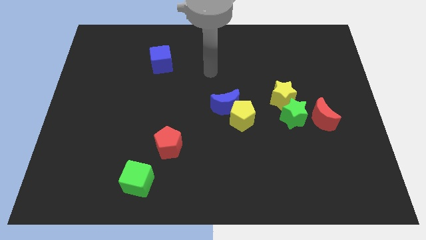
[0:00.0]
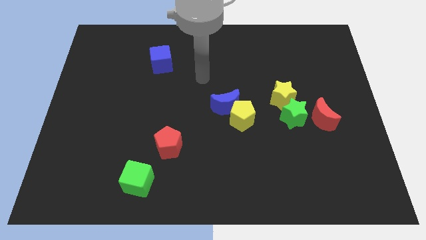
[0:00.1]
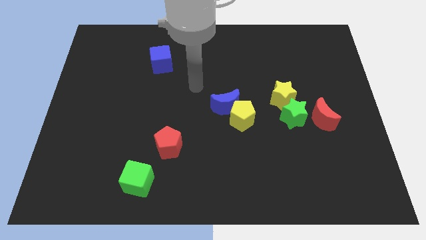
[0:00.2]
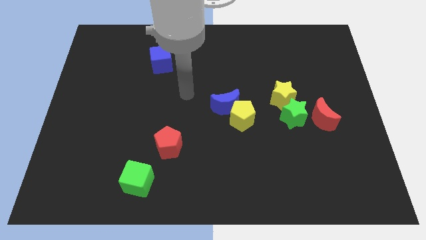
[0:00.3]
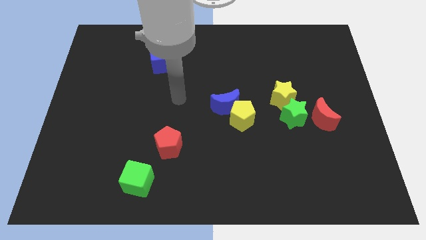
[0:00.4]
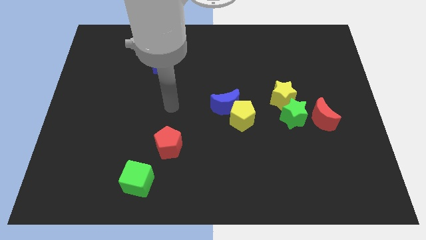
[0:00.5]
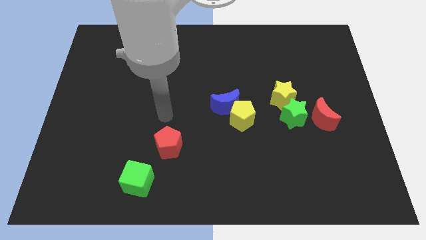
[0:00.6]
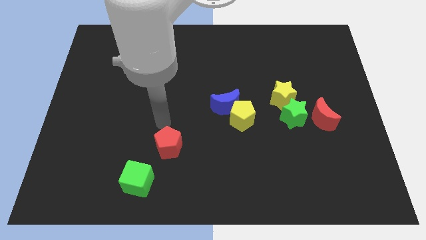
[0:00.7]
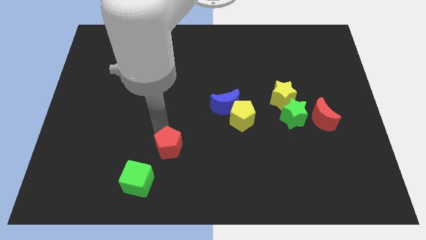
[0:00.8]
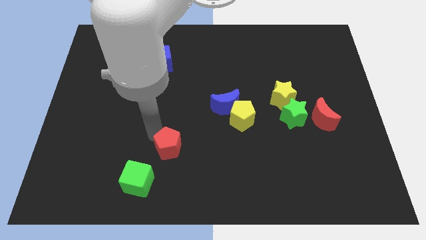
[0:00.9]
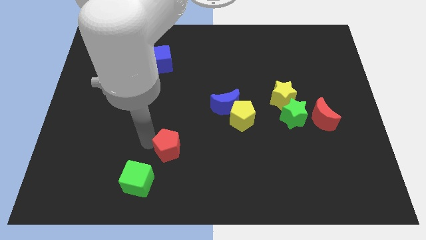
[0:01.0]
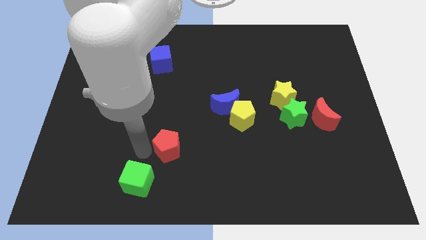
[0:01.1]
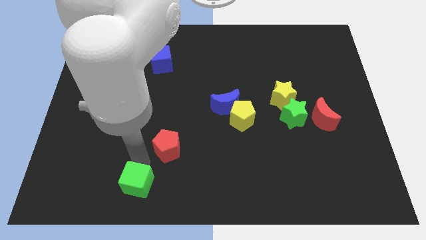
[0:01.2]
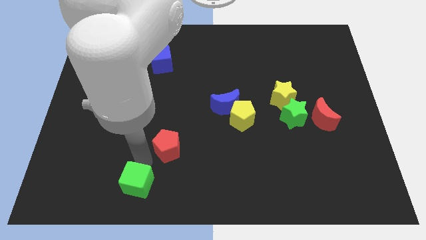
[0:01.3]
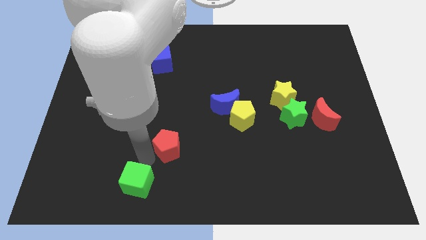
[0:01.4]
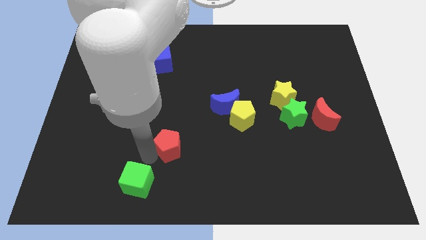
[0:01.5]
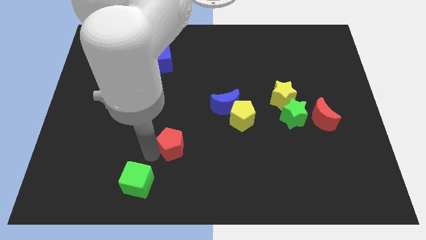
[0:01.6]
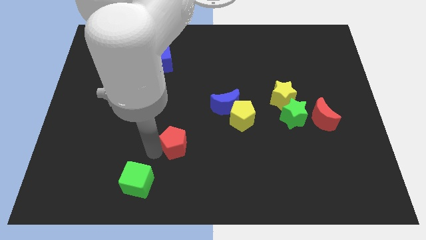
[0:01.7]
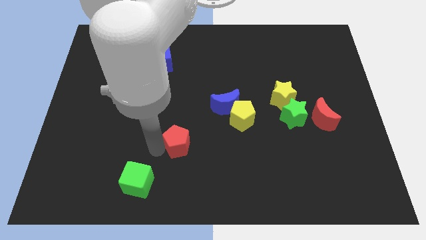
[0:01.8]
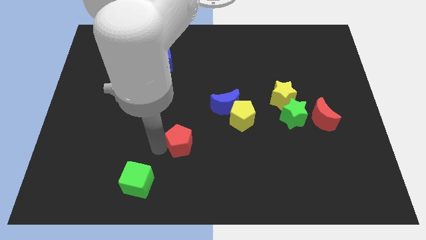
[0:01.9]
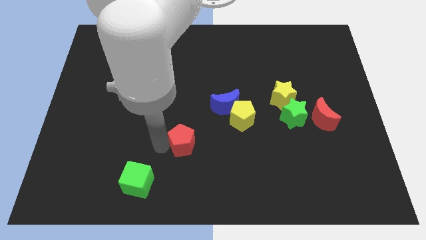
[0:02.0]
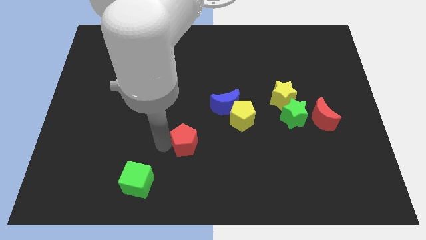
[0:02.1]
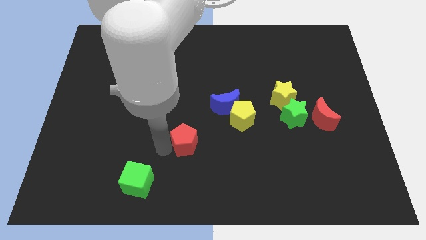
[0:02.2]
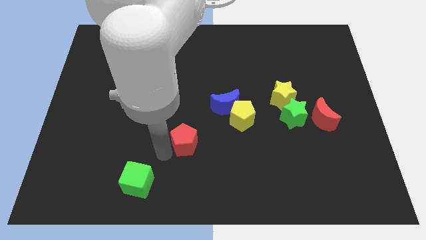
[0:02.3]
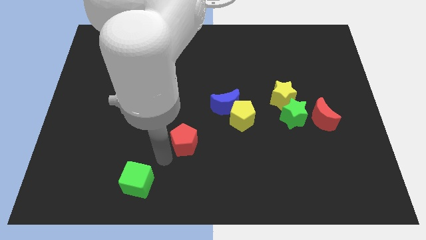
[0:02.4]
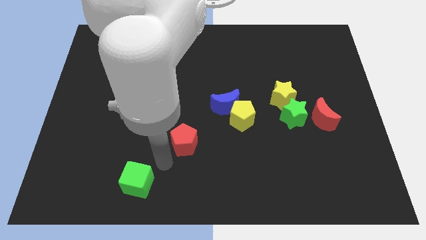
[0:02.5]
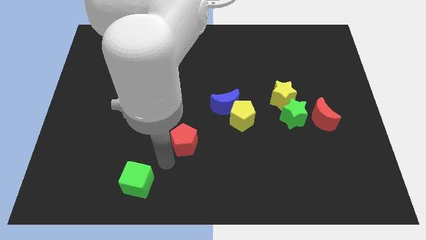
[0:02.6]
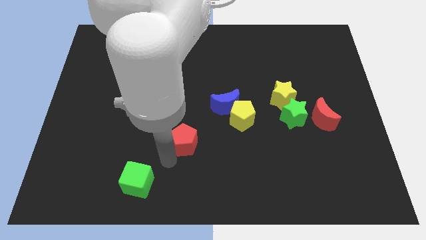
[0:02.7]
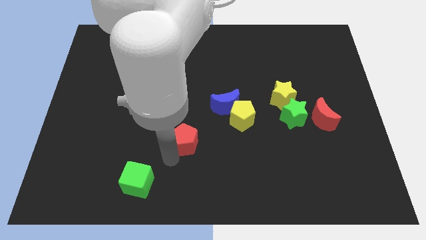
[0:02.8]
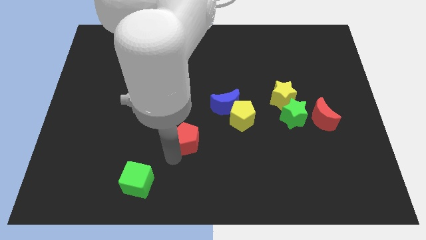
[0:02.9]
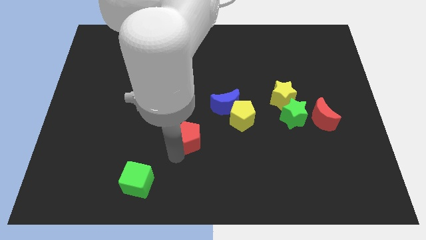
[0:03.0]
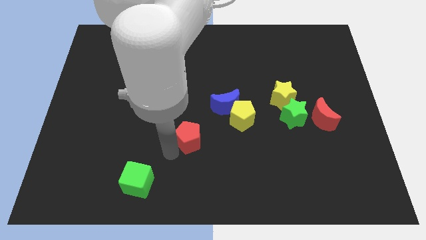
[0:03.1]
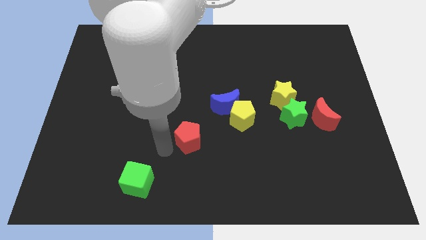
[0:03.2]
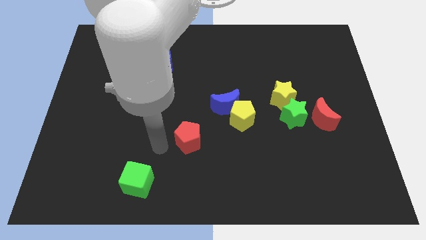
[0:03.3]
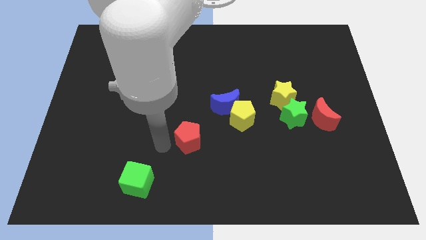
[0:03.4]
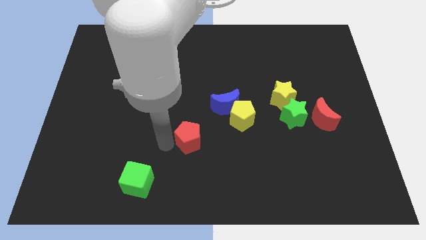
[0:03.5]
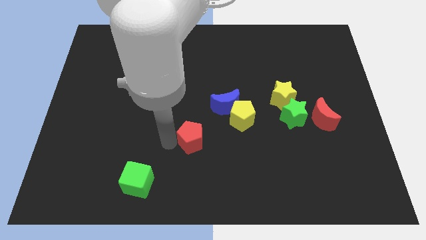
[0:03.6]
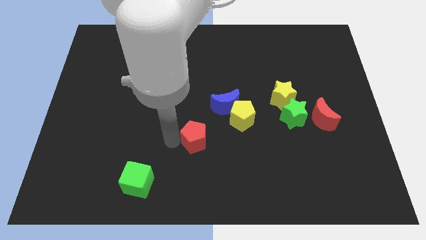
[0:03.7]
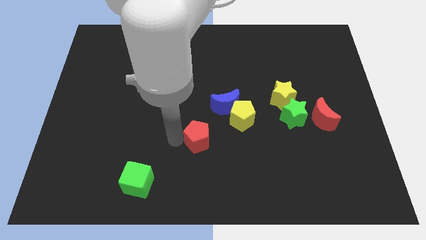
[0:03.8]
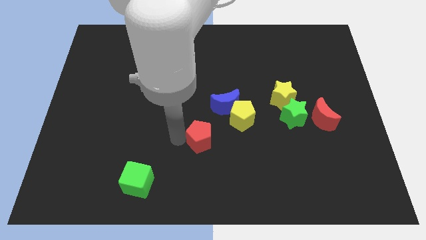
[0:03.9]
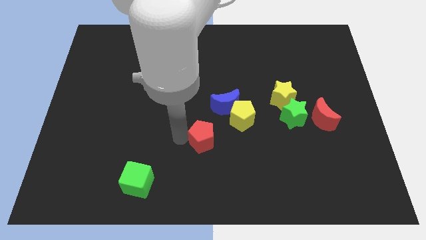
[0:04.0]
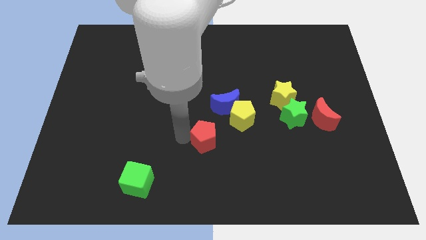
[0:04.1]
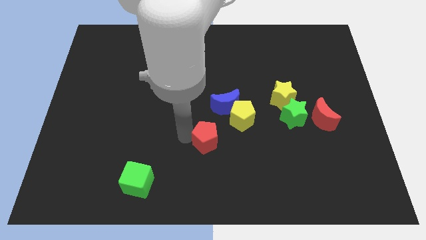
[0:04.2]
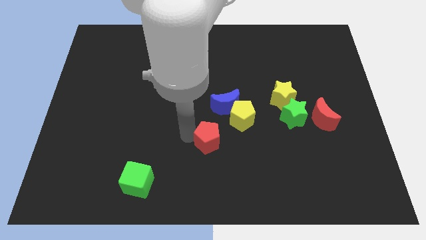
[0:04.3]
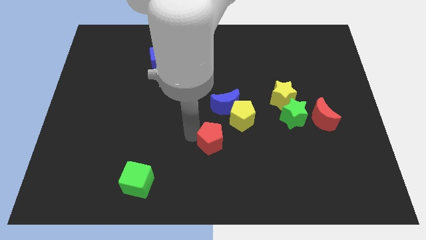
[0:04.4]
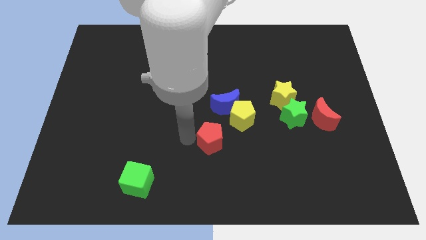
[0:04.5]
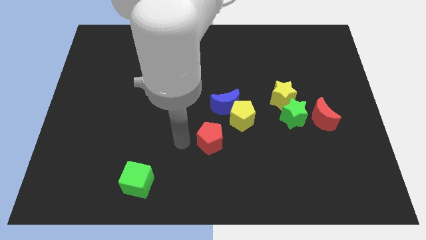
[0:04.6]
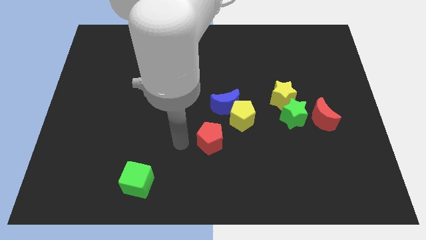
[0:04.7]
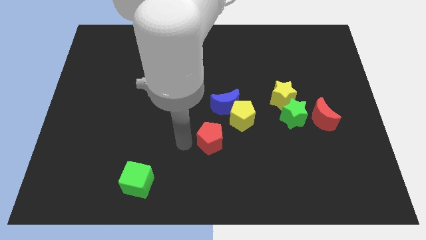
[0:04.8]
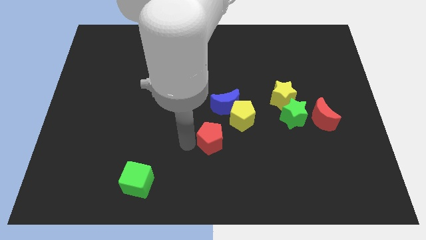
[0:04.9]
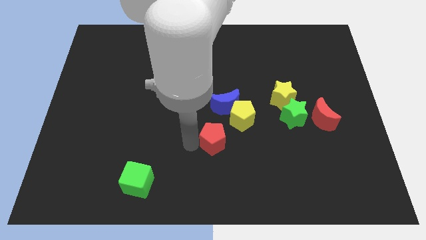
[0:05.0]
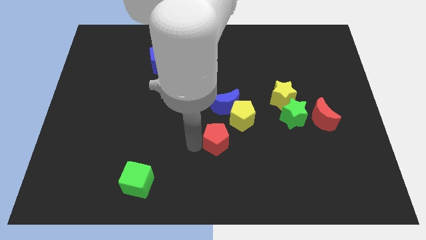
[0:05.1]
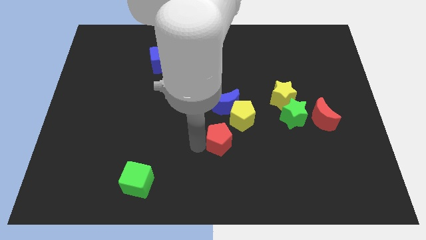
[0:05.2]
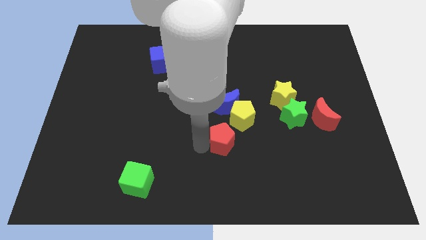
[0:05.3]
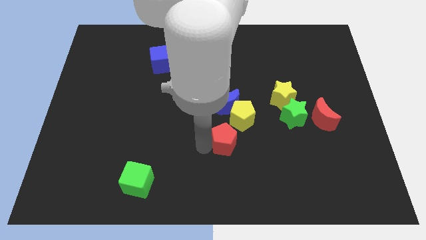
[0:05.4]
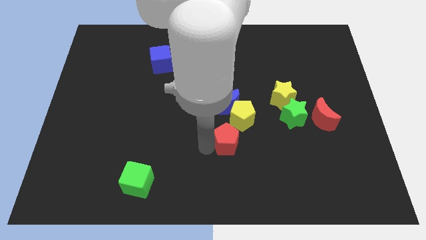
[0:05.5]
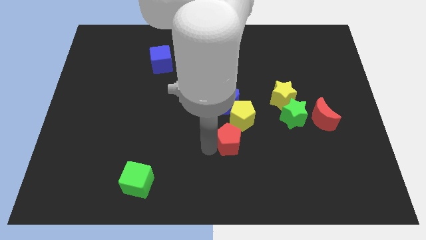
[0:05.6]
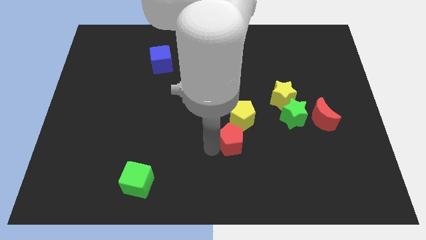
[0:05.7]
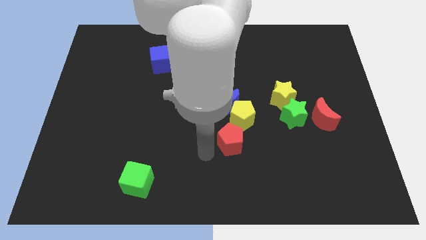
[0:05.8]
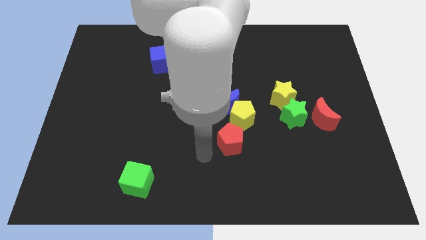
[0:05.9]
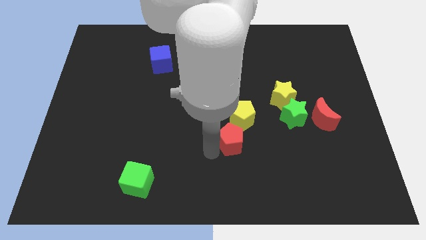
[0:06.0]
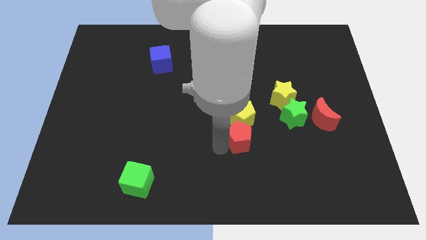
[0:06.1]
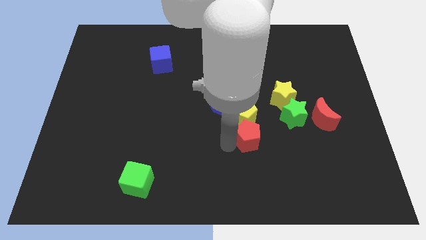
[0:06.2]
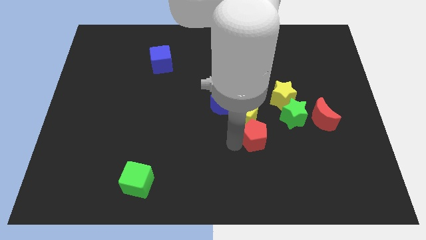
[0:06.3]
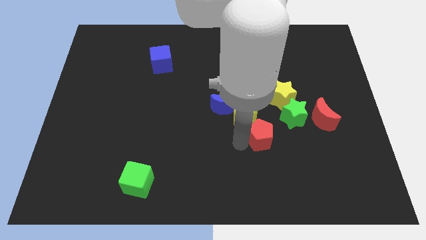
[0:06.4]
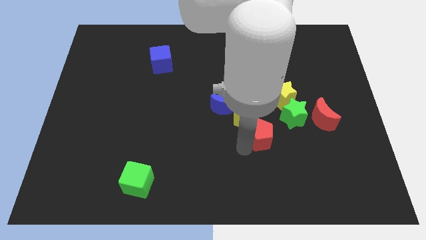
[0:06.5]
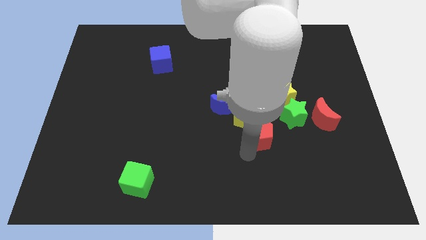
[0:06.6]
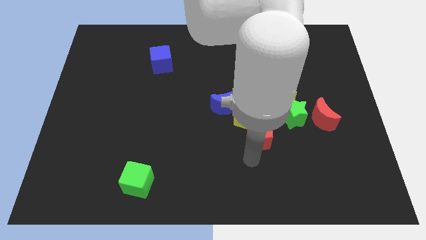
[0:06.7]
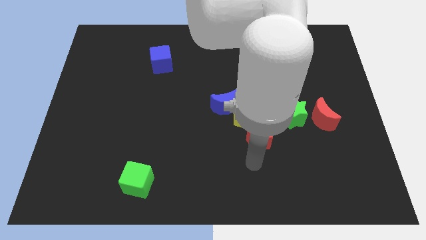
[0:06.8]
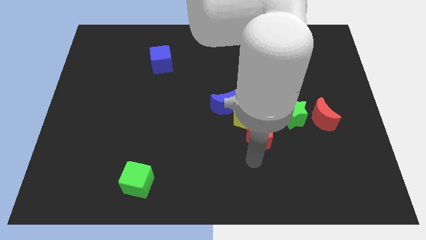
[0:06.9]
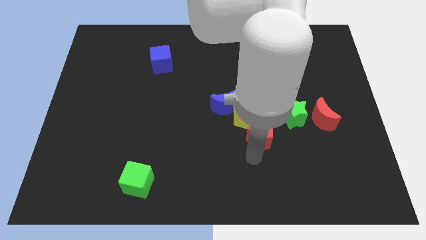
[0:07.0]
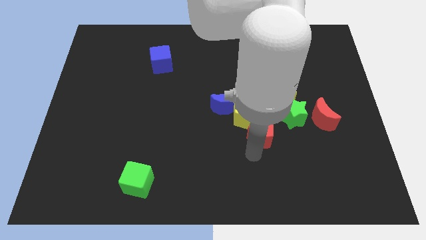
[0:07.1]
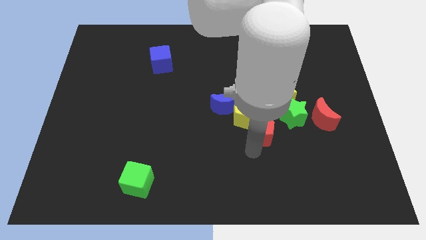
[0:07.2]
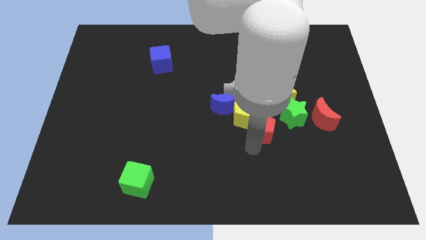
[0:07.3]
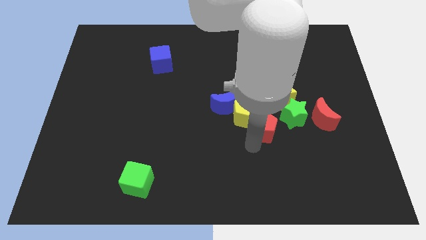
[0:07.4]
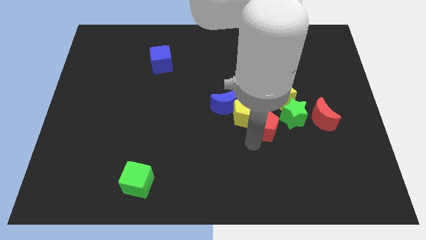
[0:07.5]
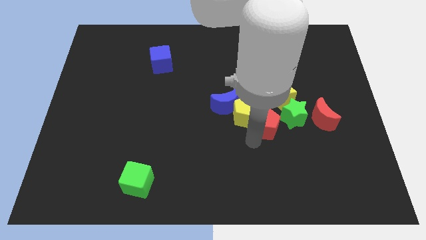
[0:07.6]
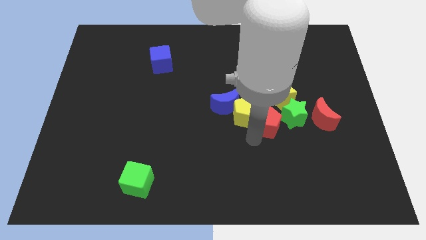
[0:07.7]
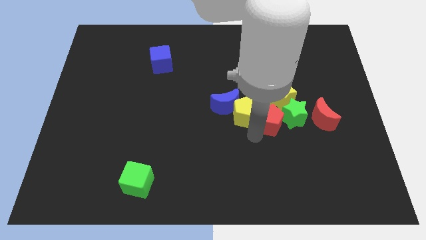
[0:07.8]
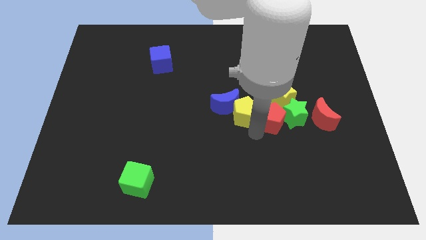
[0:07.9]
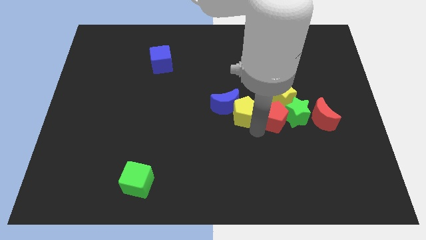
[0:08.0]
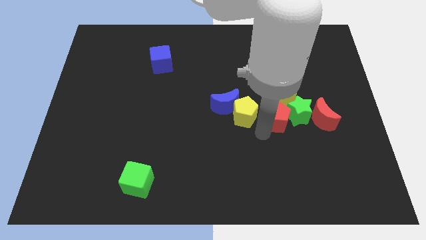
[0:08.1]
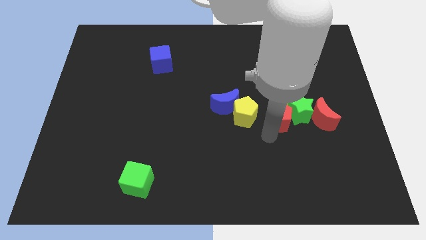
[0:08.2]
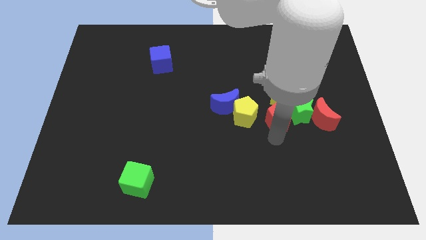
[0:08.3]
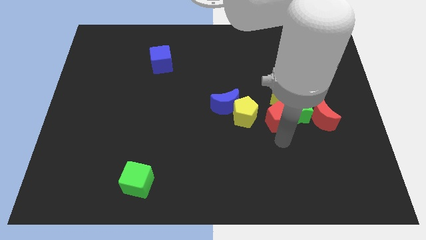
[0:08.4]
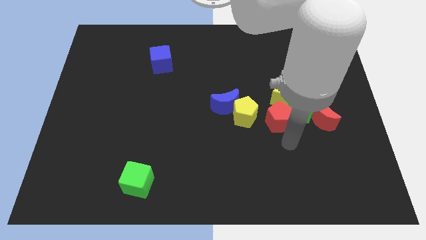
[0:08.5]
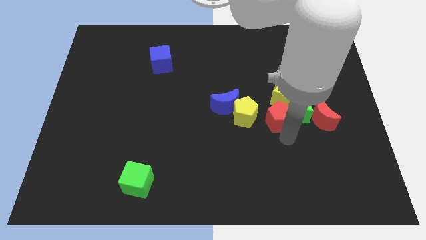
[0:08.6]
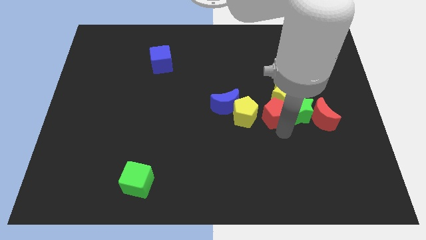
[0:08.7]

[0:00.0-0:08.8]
slide the red pentagon to the yellow star
